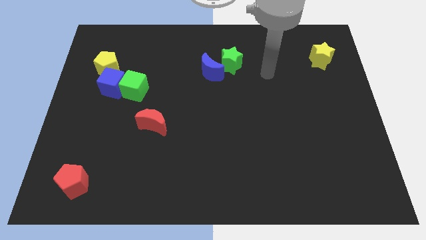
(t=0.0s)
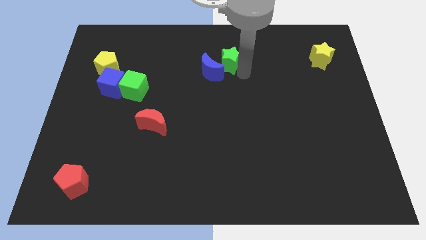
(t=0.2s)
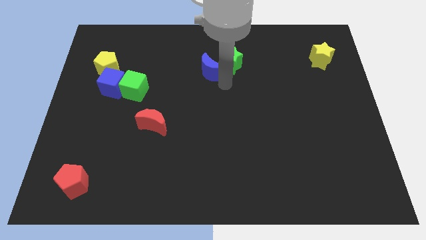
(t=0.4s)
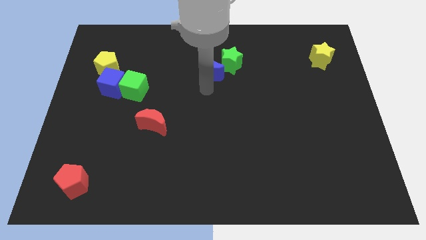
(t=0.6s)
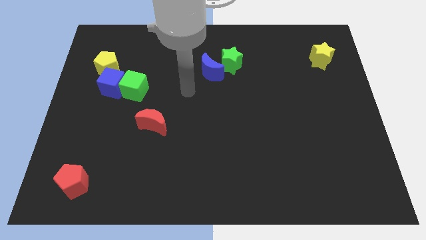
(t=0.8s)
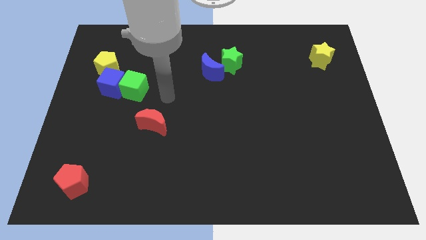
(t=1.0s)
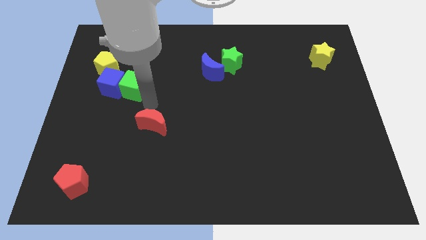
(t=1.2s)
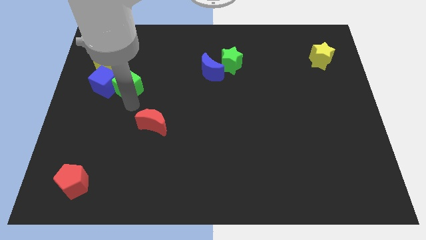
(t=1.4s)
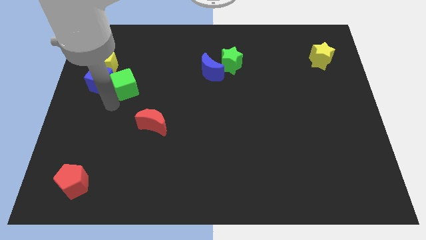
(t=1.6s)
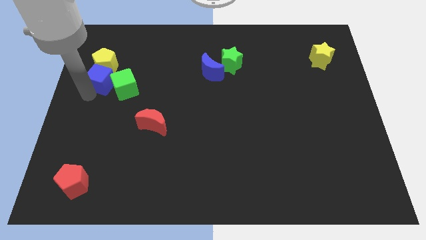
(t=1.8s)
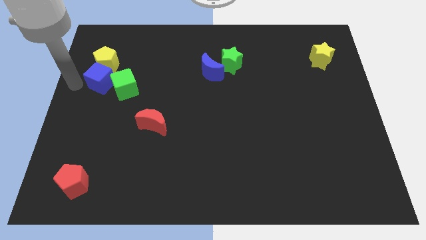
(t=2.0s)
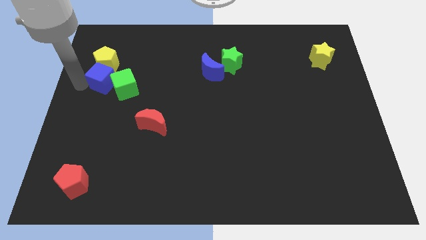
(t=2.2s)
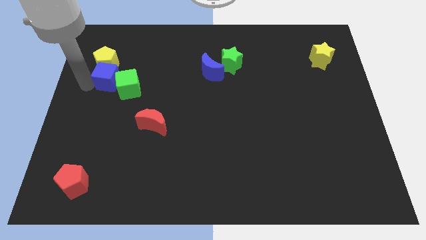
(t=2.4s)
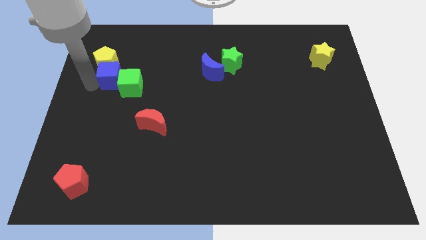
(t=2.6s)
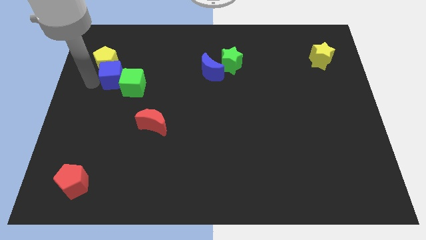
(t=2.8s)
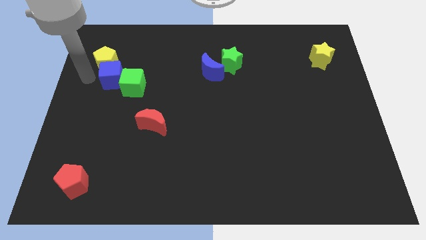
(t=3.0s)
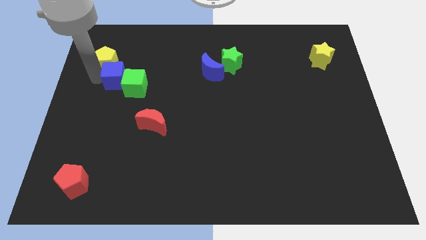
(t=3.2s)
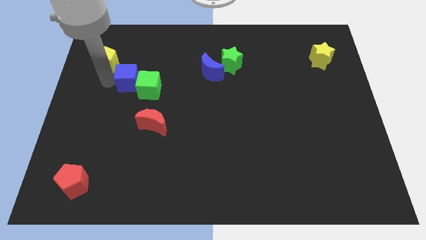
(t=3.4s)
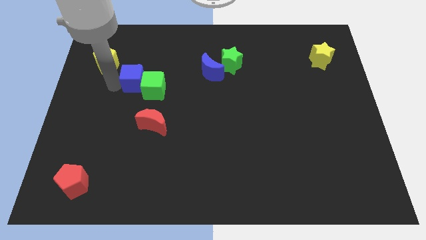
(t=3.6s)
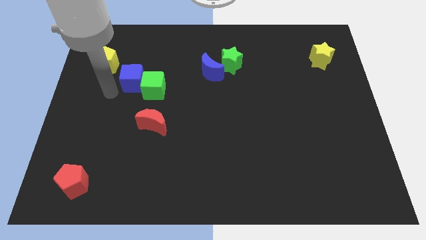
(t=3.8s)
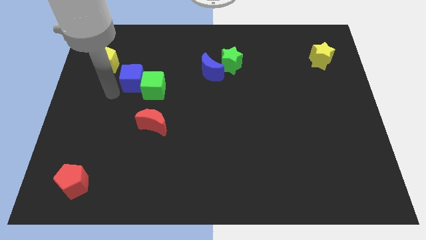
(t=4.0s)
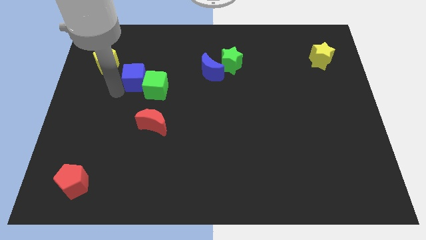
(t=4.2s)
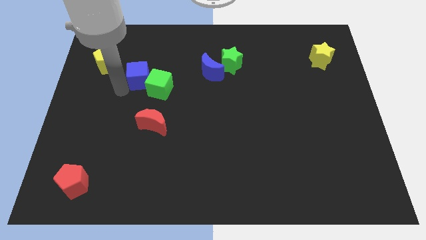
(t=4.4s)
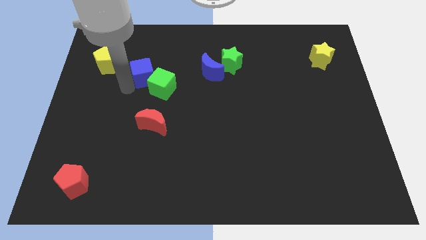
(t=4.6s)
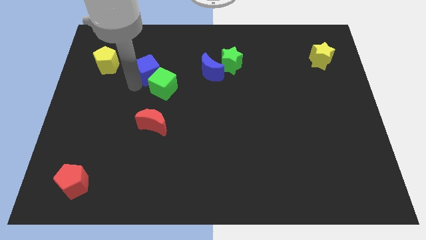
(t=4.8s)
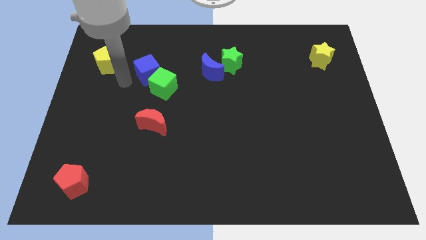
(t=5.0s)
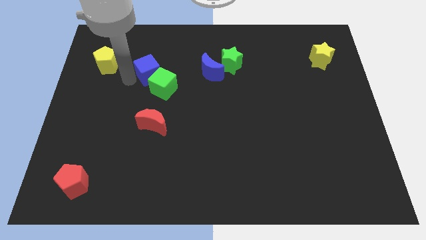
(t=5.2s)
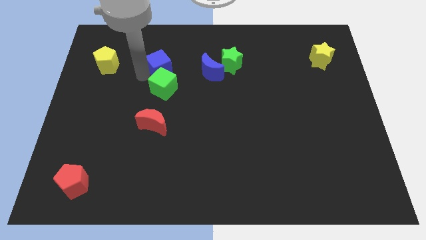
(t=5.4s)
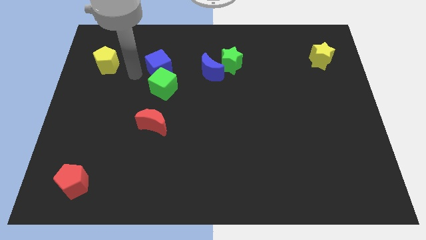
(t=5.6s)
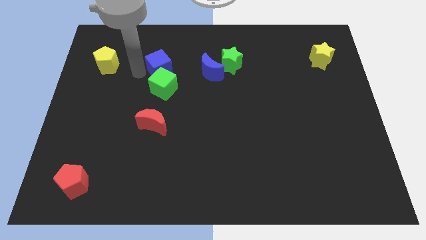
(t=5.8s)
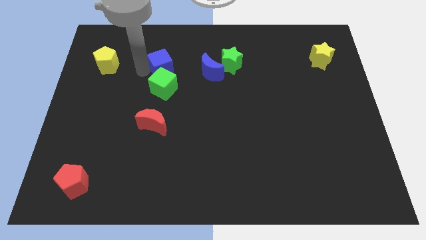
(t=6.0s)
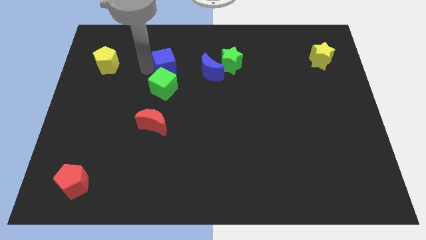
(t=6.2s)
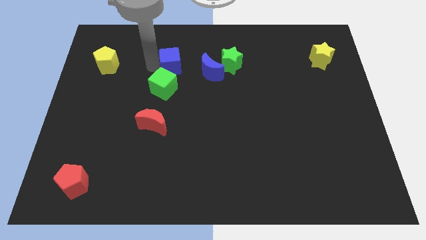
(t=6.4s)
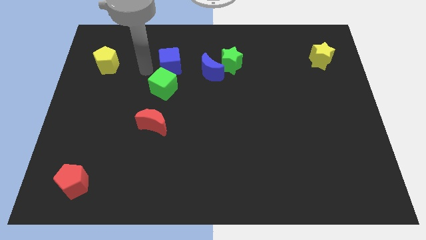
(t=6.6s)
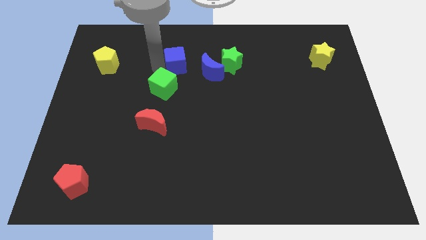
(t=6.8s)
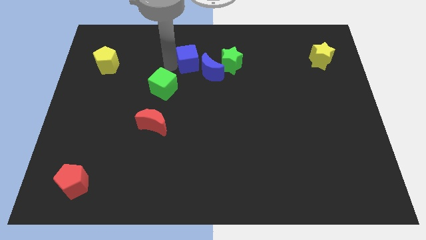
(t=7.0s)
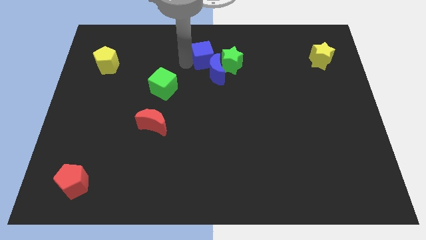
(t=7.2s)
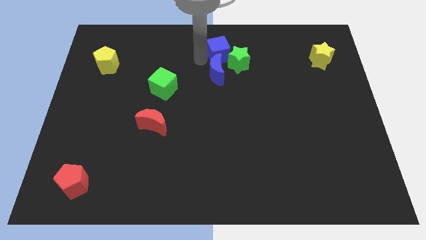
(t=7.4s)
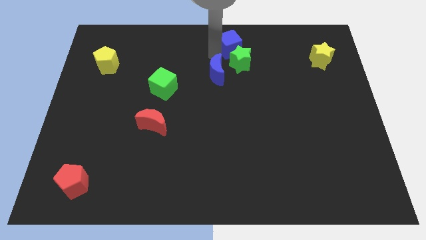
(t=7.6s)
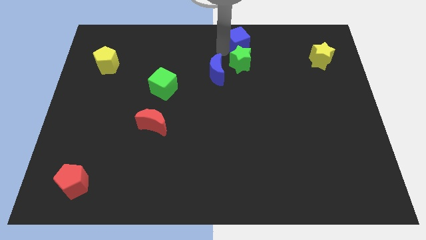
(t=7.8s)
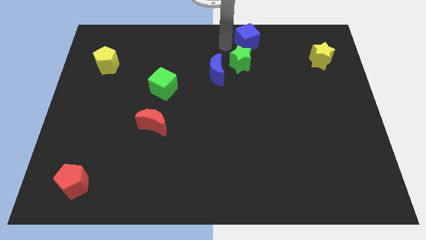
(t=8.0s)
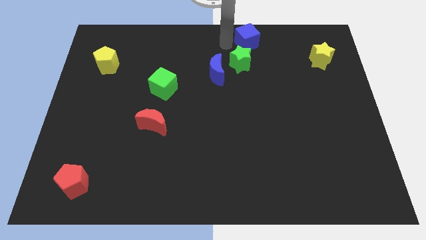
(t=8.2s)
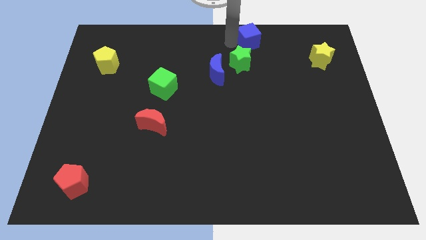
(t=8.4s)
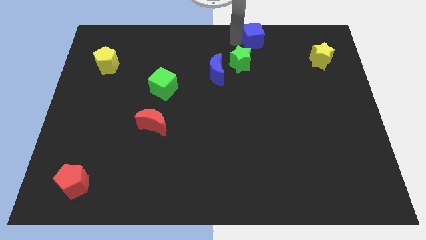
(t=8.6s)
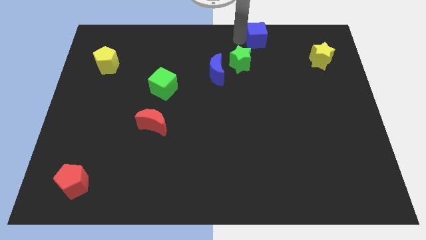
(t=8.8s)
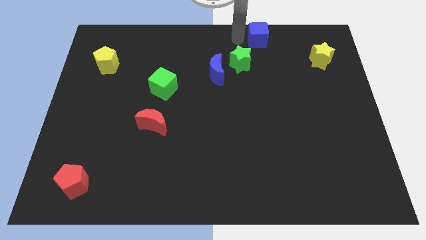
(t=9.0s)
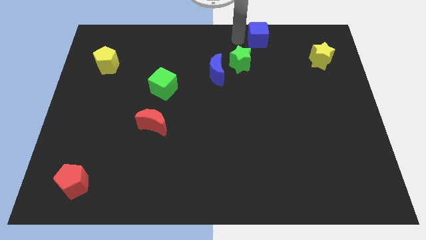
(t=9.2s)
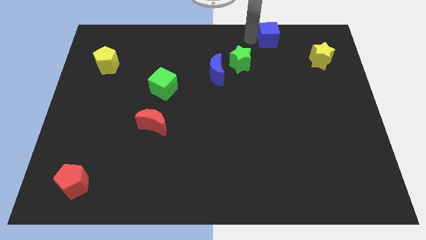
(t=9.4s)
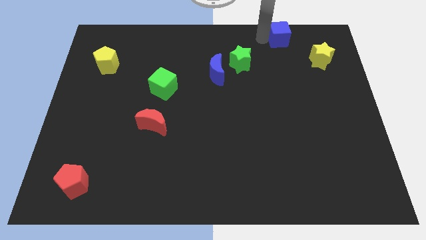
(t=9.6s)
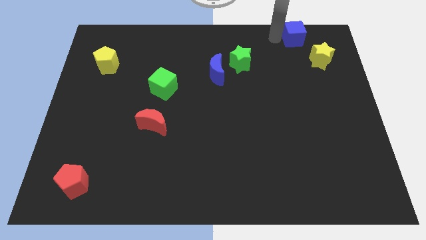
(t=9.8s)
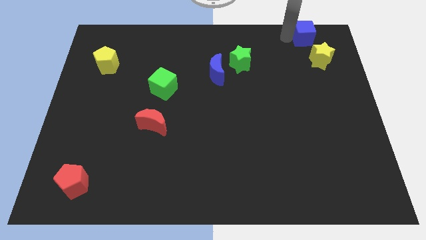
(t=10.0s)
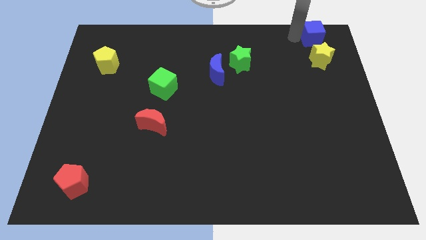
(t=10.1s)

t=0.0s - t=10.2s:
push the blue cube to the top right of the board
